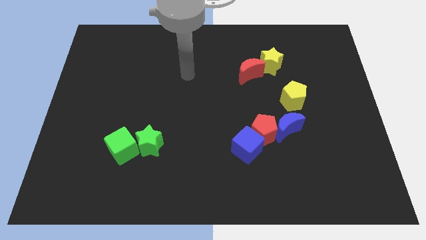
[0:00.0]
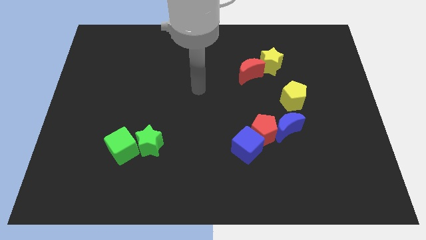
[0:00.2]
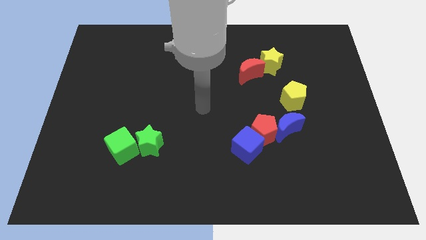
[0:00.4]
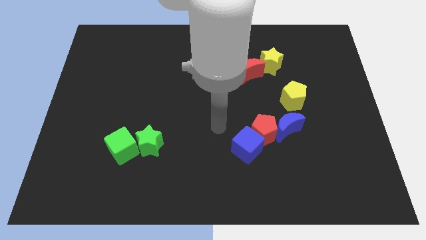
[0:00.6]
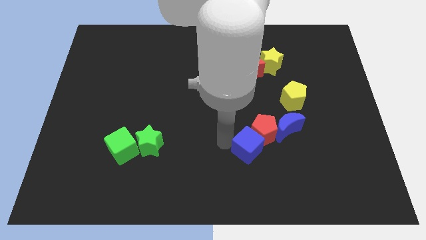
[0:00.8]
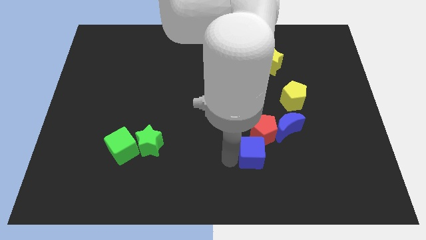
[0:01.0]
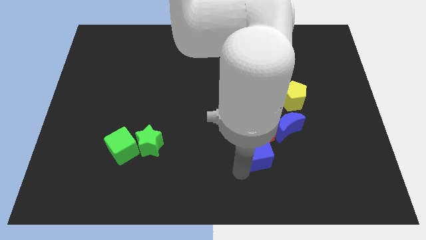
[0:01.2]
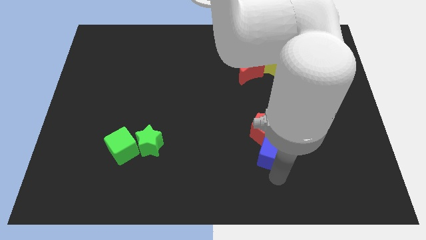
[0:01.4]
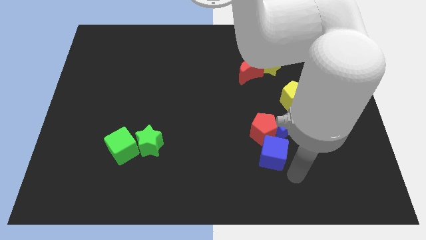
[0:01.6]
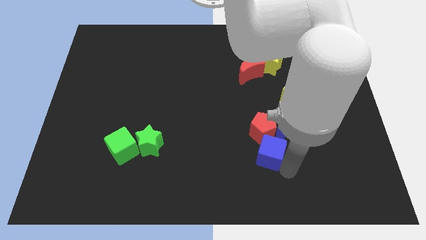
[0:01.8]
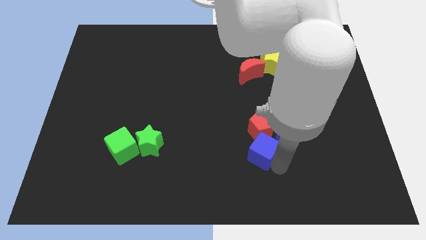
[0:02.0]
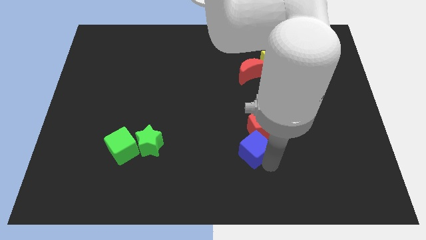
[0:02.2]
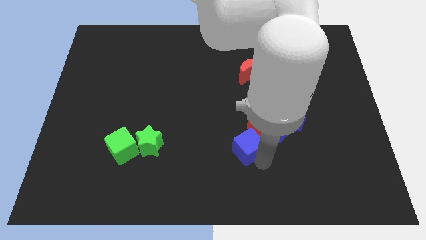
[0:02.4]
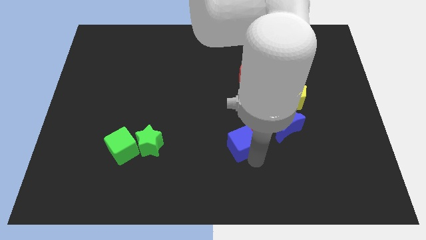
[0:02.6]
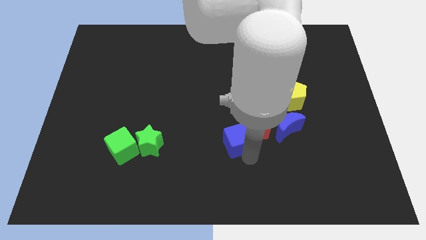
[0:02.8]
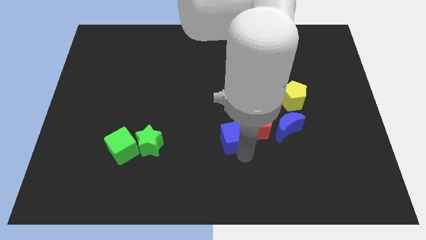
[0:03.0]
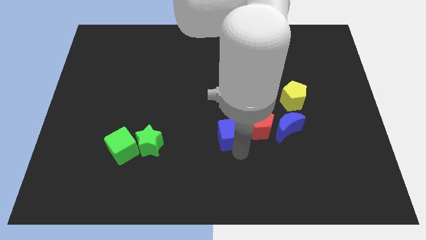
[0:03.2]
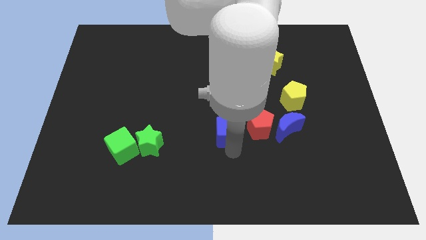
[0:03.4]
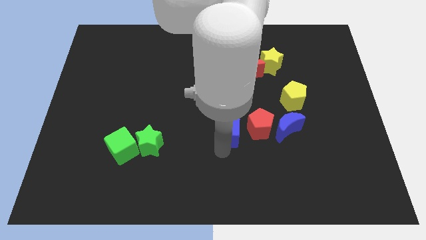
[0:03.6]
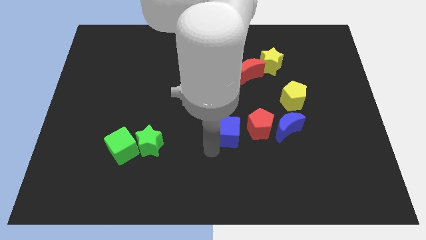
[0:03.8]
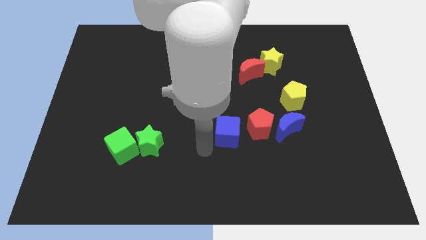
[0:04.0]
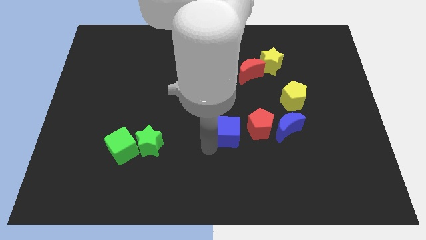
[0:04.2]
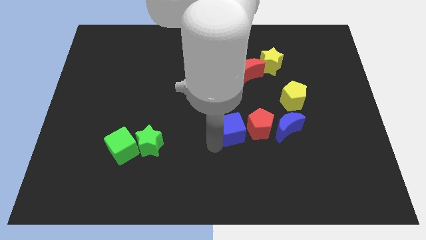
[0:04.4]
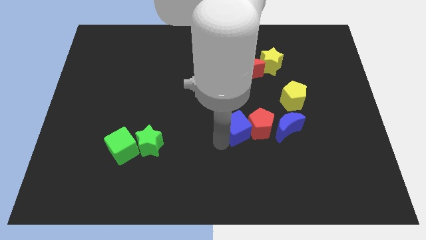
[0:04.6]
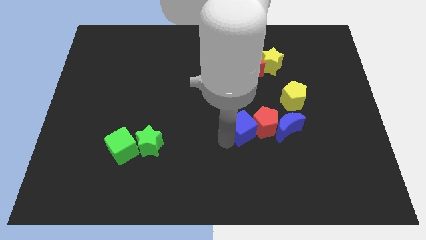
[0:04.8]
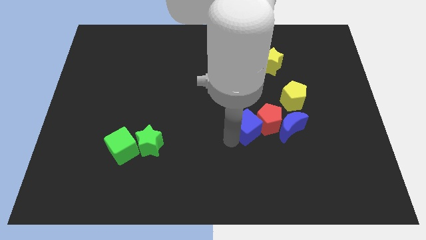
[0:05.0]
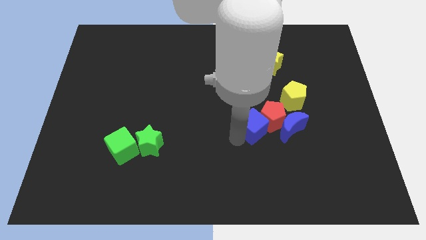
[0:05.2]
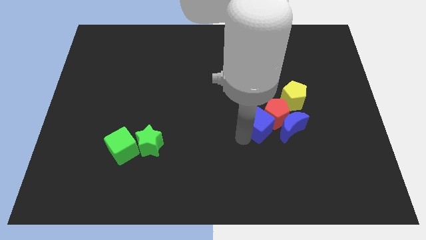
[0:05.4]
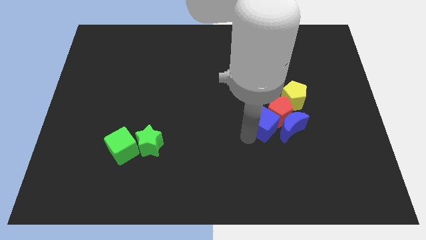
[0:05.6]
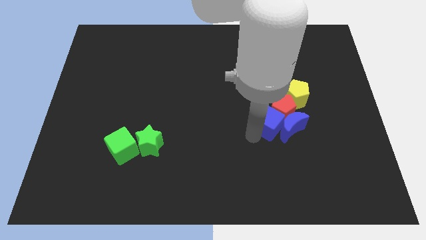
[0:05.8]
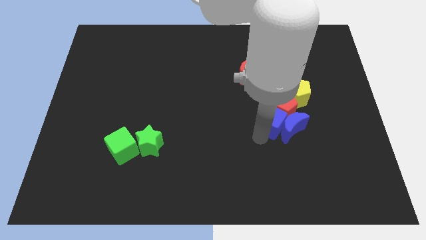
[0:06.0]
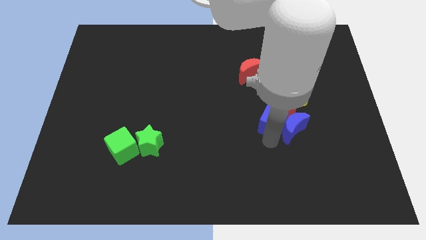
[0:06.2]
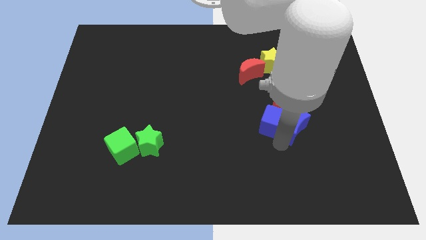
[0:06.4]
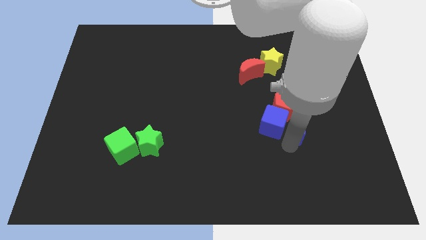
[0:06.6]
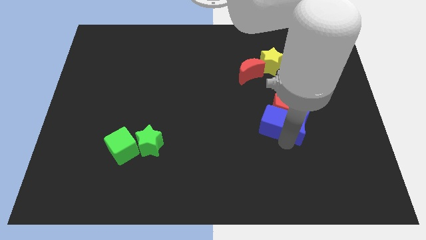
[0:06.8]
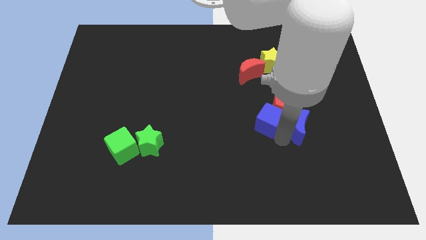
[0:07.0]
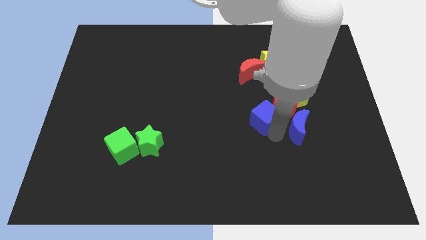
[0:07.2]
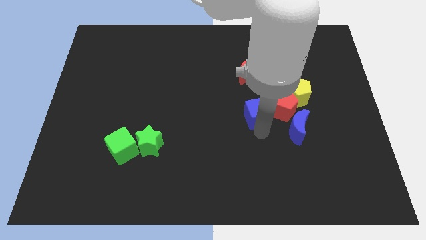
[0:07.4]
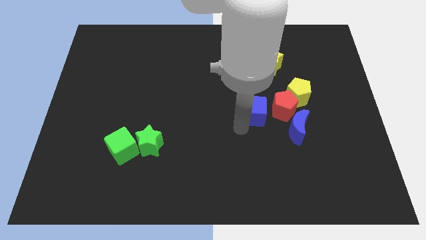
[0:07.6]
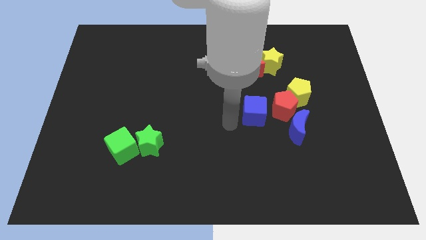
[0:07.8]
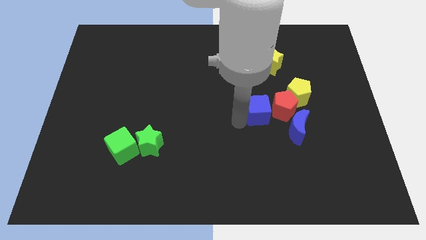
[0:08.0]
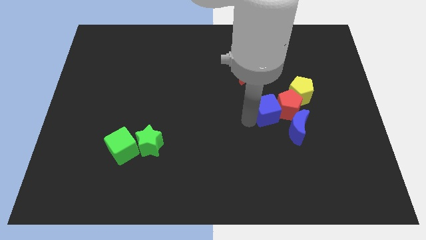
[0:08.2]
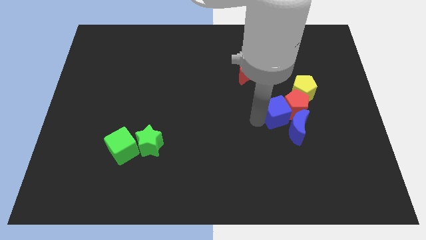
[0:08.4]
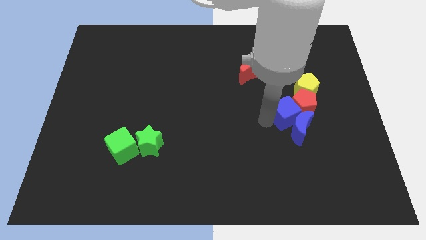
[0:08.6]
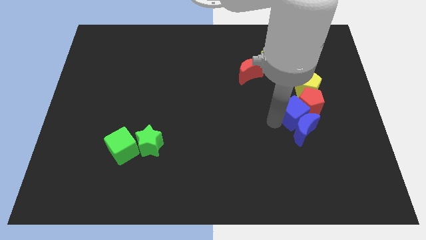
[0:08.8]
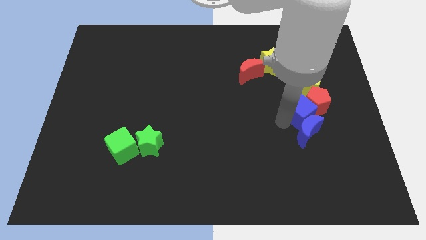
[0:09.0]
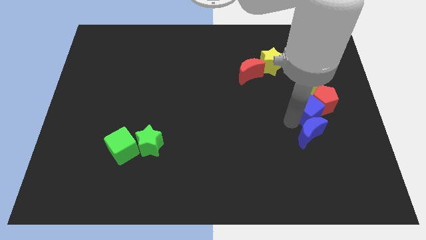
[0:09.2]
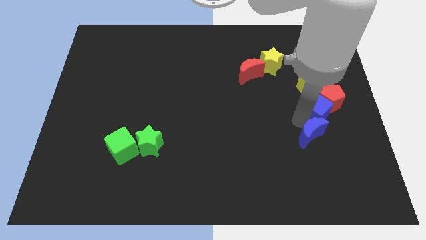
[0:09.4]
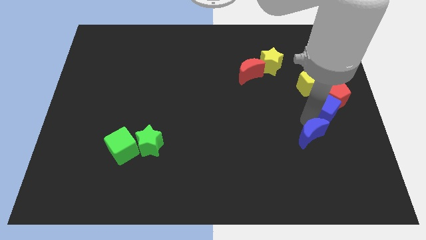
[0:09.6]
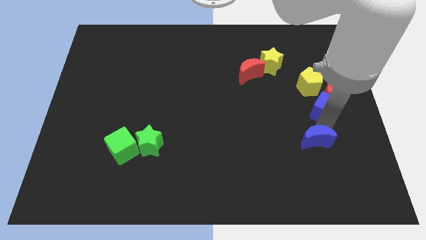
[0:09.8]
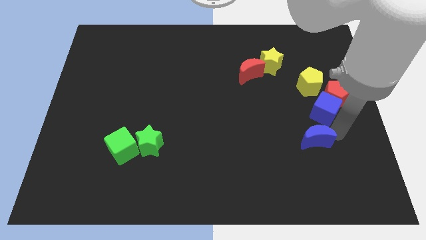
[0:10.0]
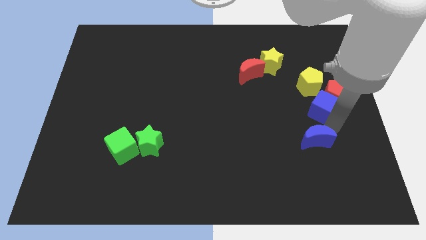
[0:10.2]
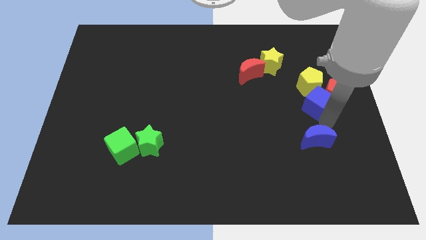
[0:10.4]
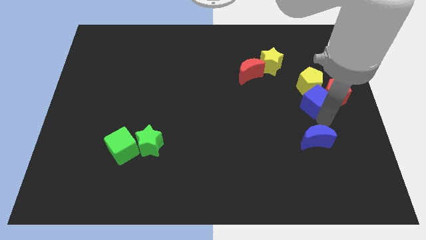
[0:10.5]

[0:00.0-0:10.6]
push the blue cube towards the yellow pentagon
